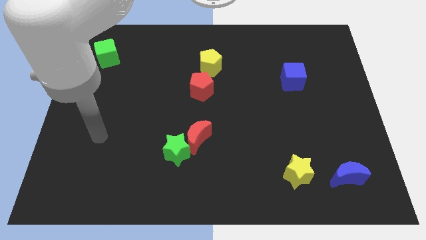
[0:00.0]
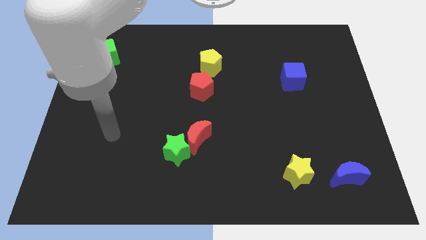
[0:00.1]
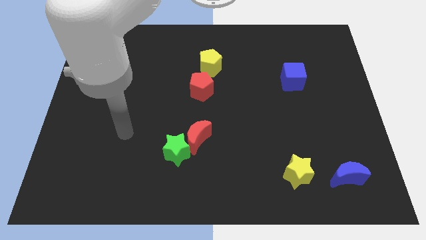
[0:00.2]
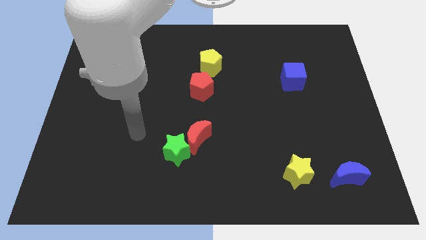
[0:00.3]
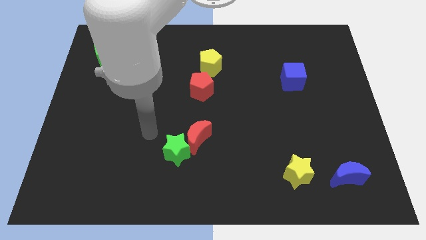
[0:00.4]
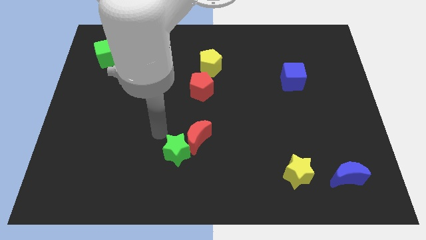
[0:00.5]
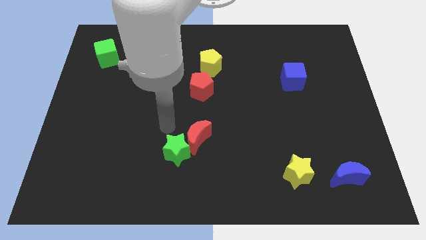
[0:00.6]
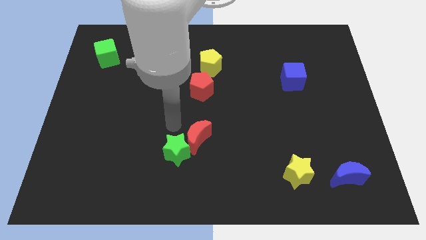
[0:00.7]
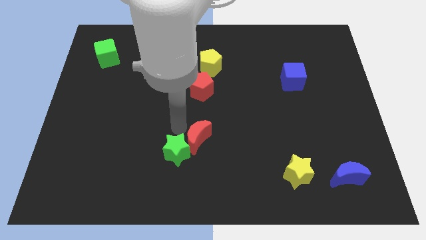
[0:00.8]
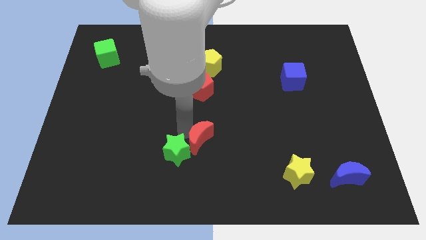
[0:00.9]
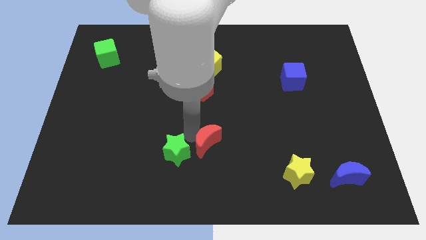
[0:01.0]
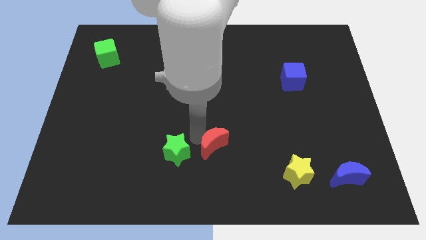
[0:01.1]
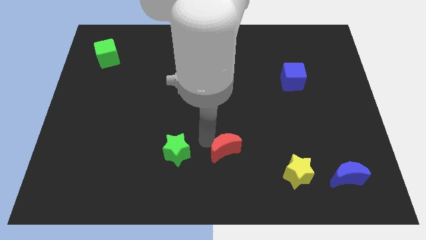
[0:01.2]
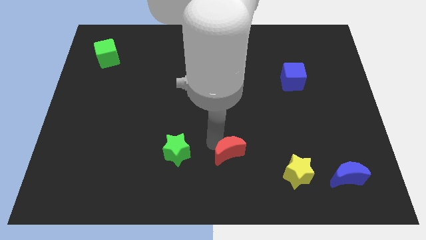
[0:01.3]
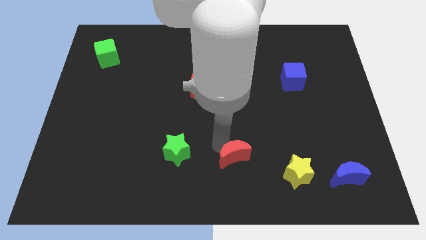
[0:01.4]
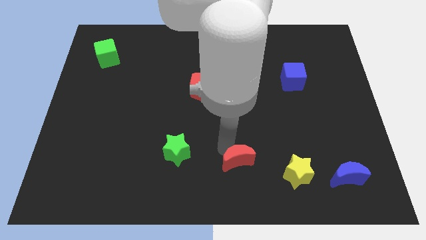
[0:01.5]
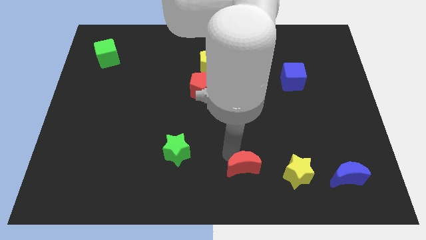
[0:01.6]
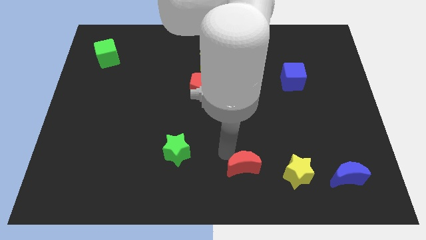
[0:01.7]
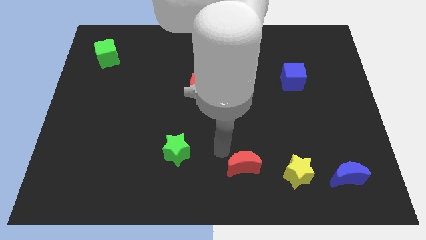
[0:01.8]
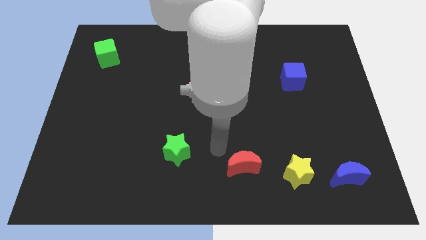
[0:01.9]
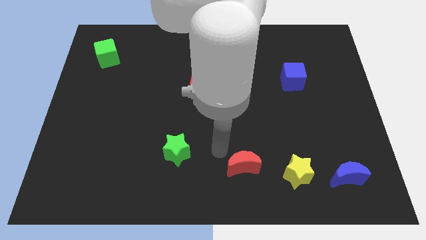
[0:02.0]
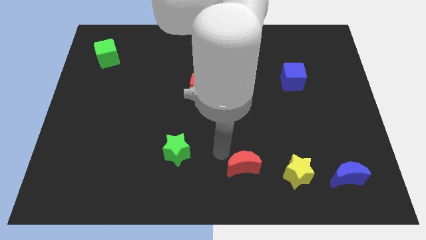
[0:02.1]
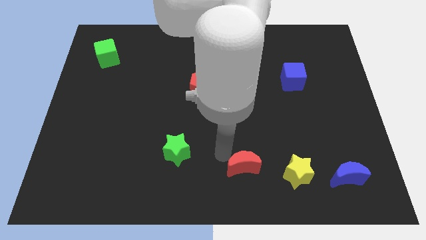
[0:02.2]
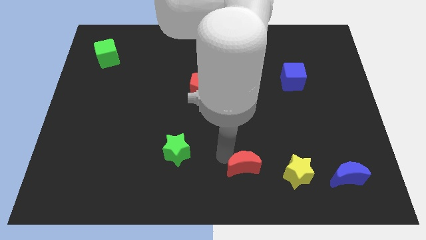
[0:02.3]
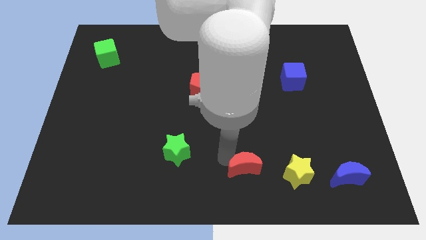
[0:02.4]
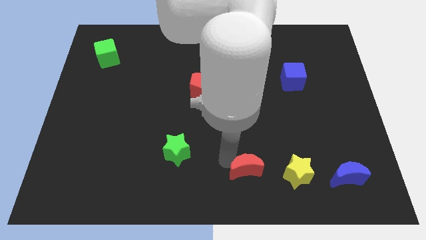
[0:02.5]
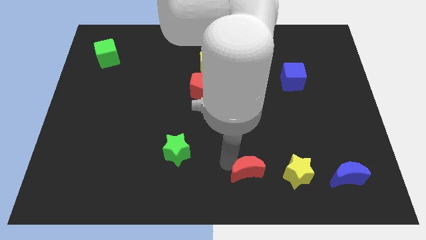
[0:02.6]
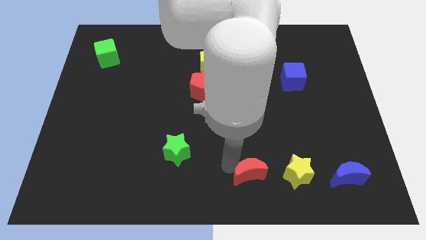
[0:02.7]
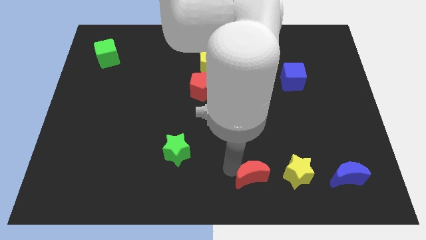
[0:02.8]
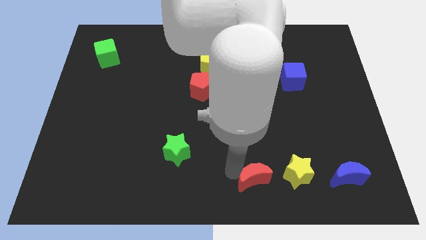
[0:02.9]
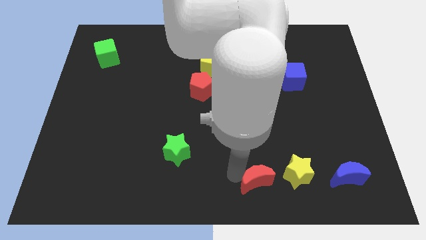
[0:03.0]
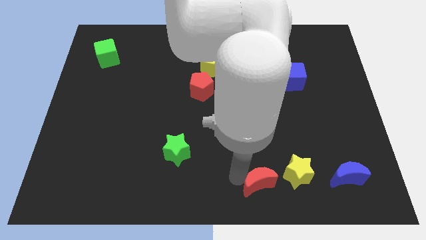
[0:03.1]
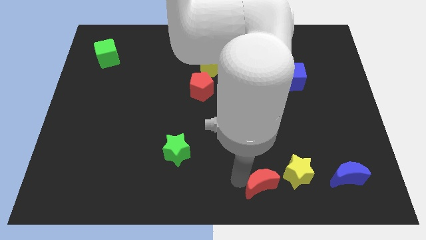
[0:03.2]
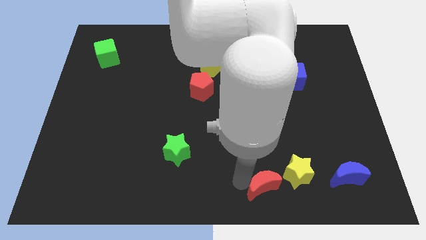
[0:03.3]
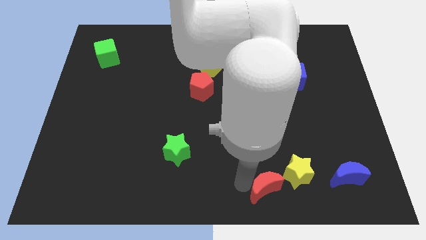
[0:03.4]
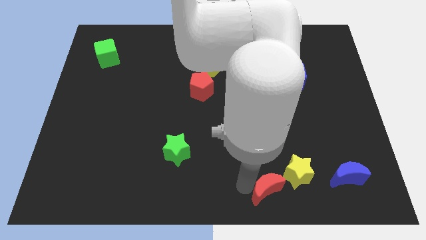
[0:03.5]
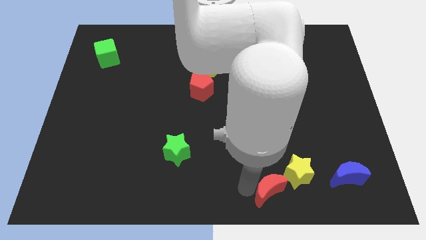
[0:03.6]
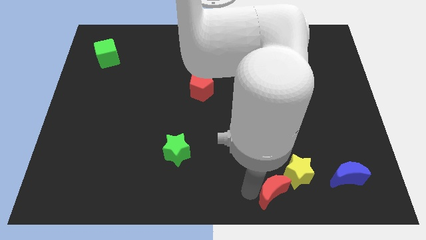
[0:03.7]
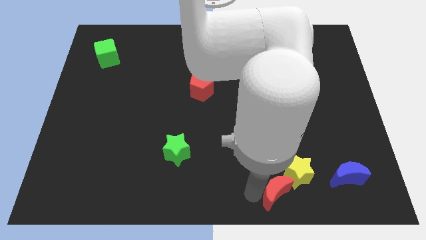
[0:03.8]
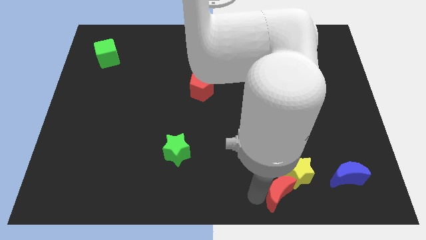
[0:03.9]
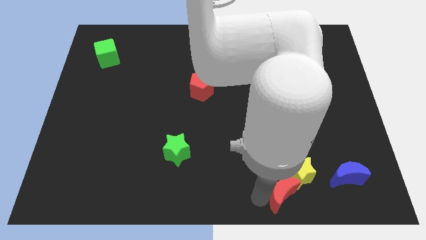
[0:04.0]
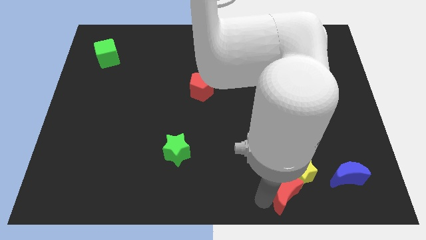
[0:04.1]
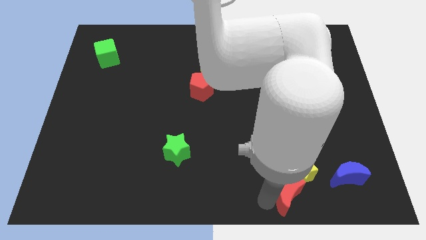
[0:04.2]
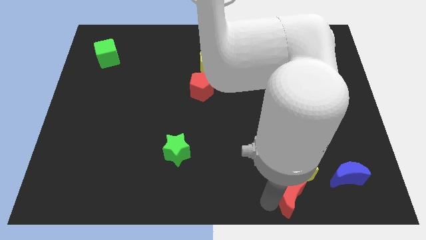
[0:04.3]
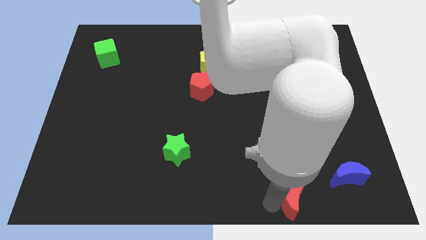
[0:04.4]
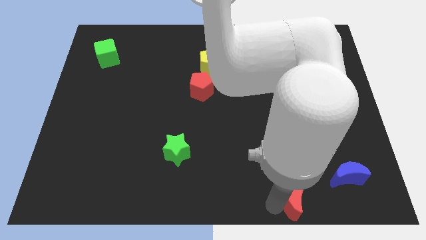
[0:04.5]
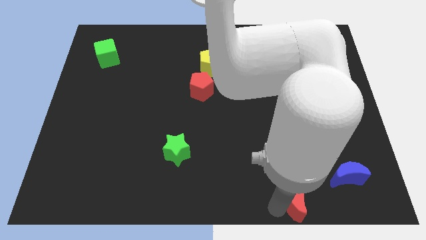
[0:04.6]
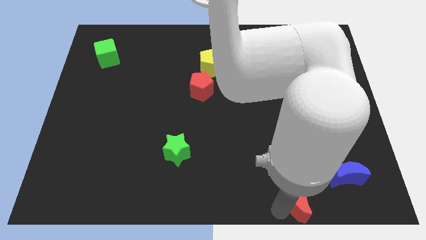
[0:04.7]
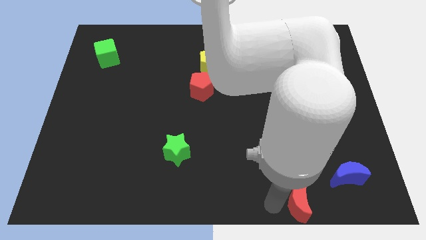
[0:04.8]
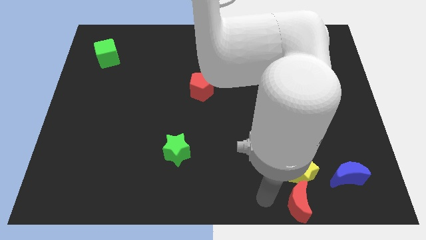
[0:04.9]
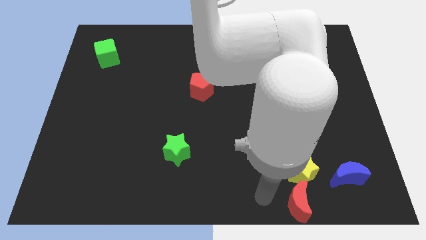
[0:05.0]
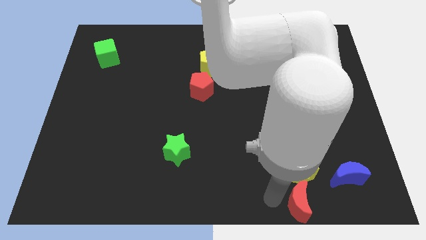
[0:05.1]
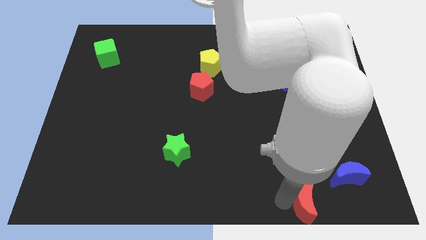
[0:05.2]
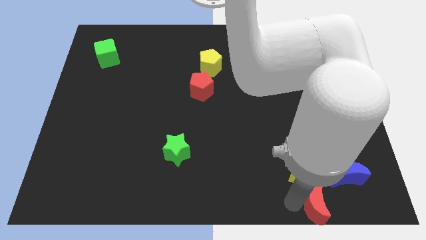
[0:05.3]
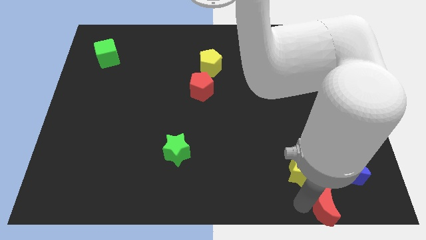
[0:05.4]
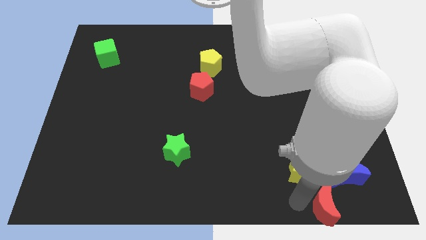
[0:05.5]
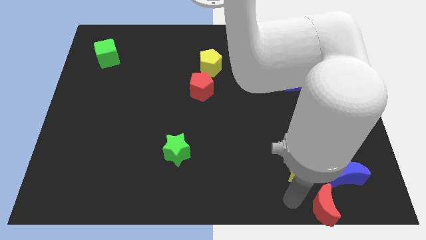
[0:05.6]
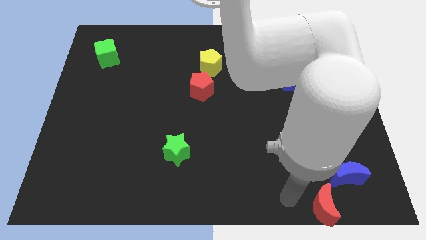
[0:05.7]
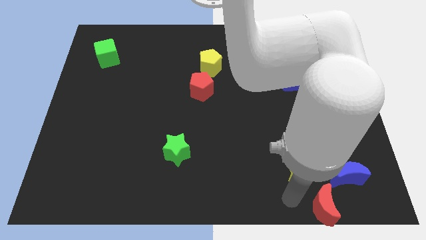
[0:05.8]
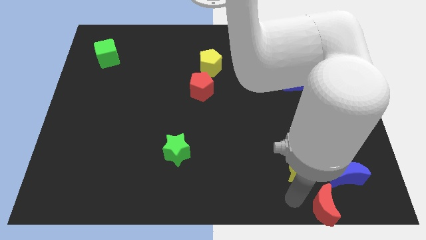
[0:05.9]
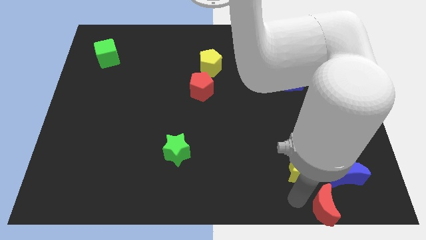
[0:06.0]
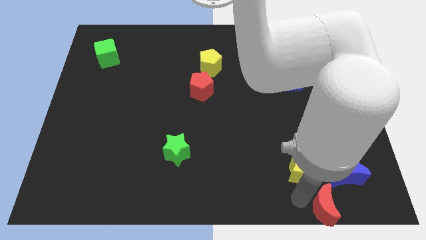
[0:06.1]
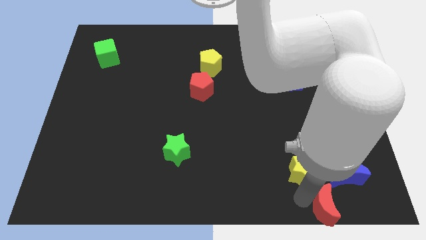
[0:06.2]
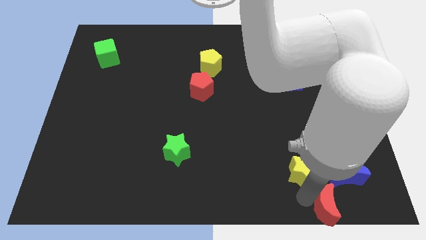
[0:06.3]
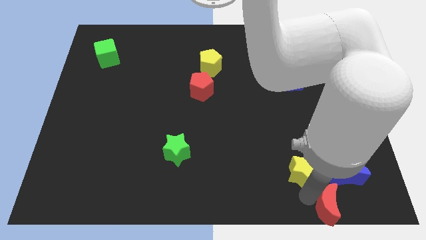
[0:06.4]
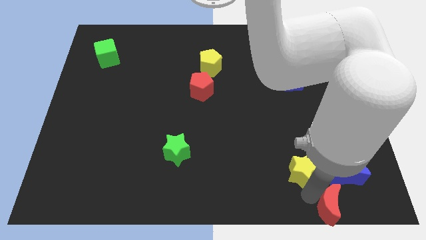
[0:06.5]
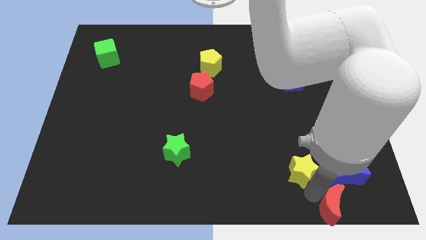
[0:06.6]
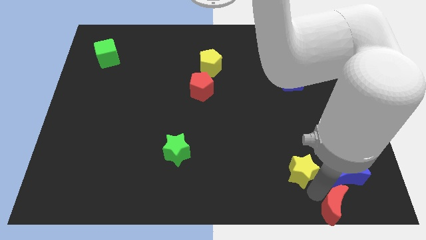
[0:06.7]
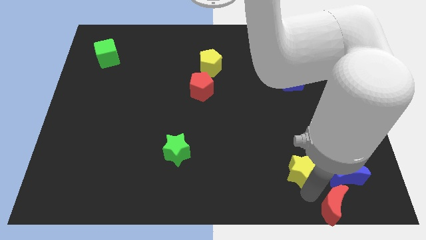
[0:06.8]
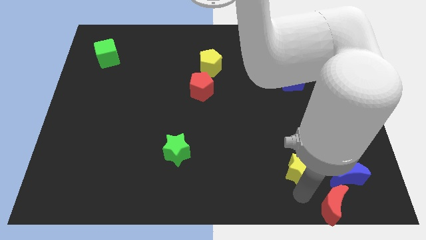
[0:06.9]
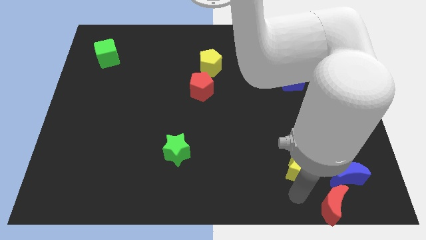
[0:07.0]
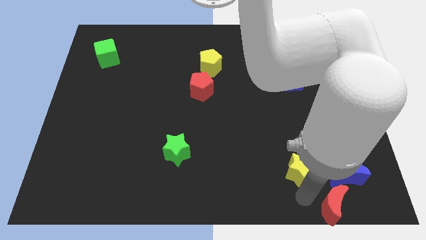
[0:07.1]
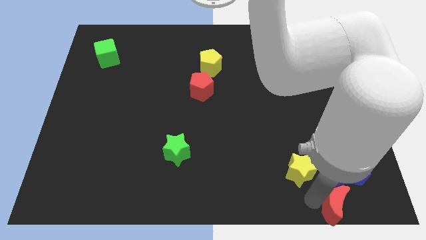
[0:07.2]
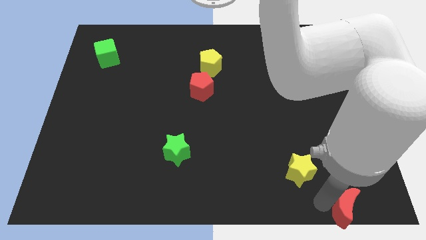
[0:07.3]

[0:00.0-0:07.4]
move the red moon to the lower right corner

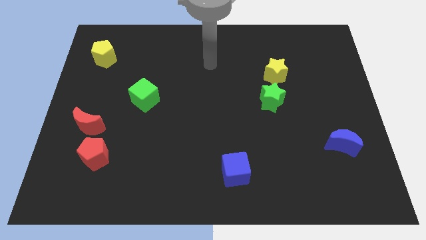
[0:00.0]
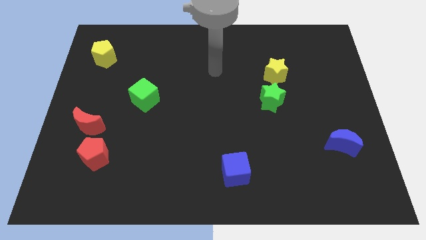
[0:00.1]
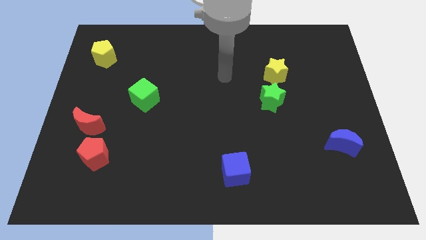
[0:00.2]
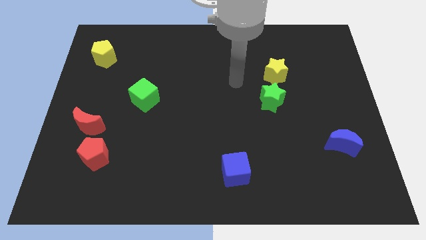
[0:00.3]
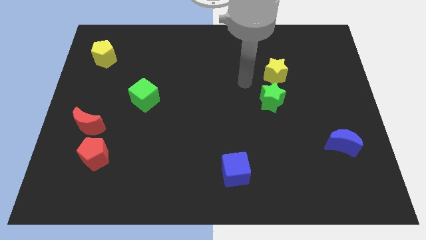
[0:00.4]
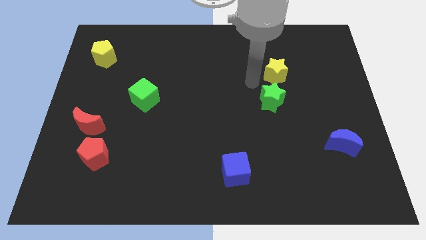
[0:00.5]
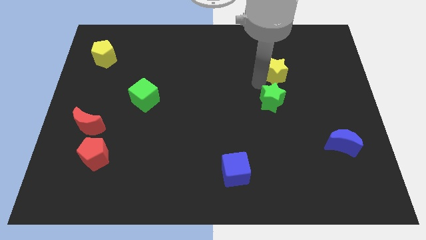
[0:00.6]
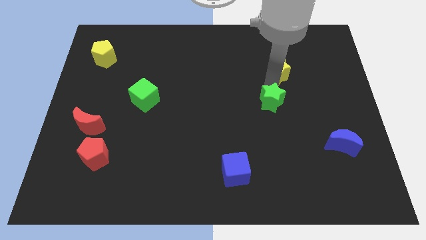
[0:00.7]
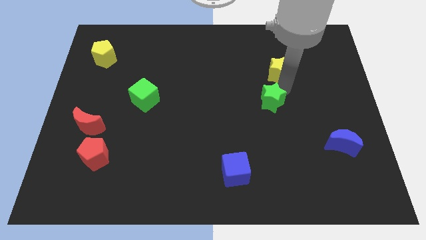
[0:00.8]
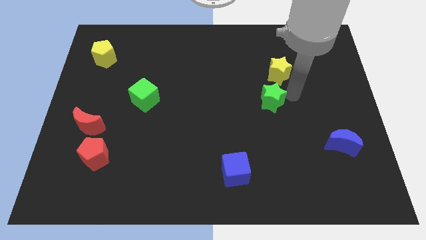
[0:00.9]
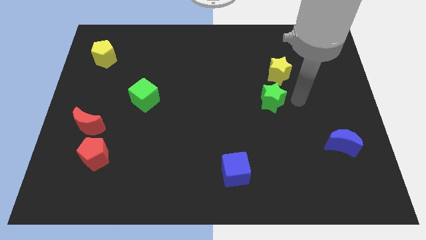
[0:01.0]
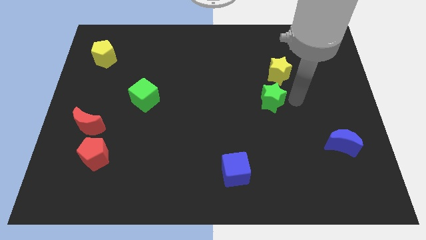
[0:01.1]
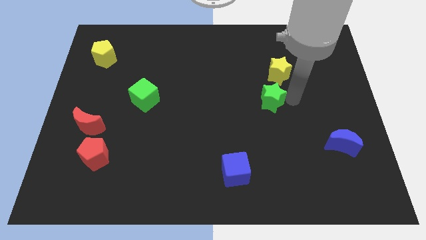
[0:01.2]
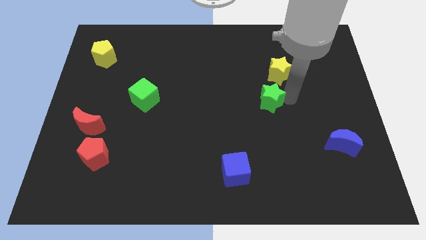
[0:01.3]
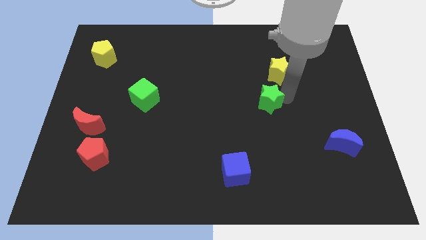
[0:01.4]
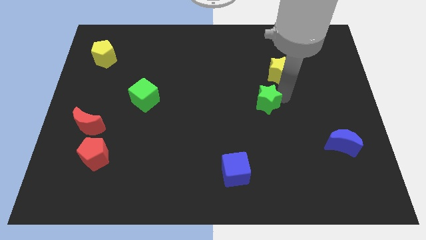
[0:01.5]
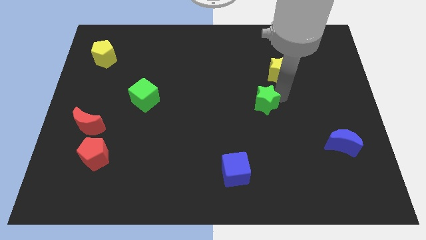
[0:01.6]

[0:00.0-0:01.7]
move the green star to the middle
